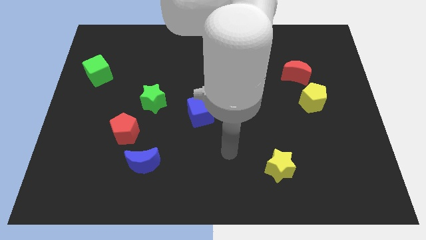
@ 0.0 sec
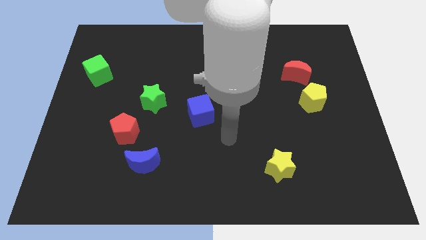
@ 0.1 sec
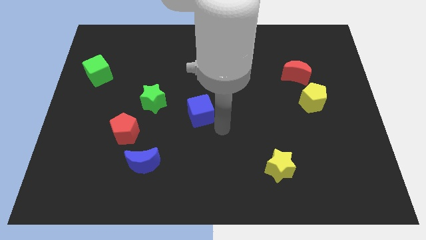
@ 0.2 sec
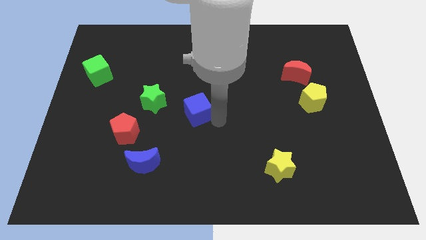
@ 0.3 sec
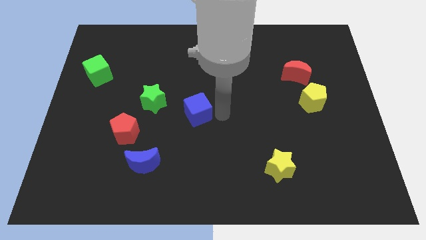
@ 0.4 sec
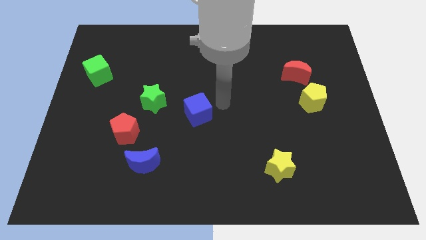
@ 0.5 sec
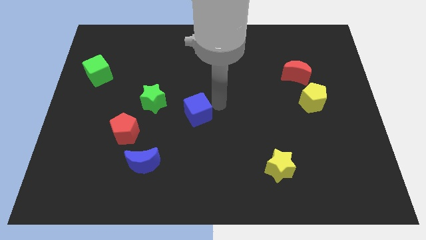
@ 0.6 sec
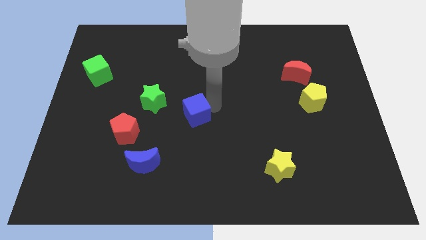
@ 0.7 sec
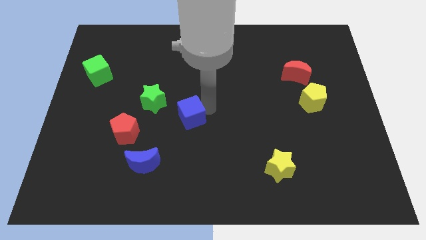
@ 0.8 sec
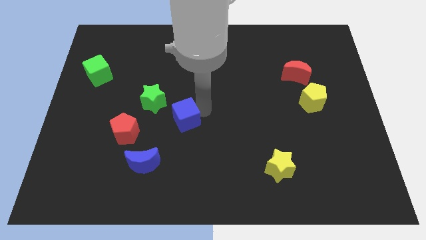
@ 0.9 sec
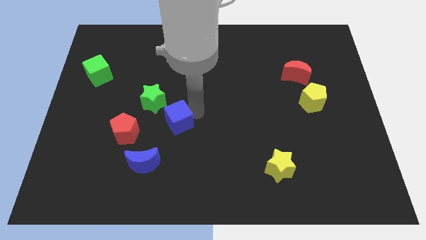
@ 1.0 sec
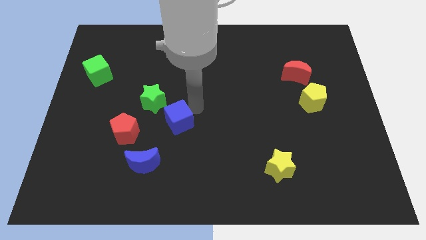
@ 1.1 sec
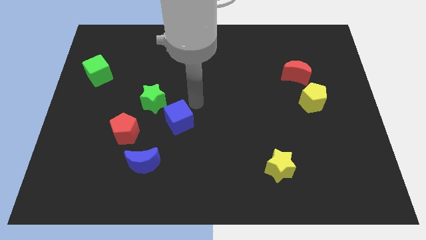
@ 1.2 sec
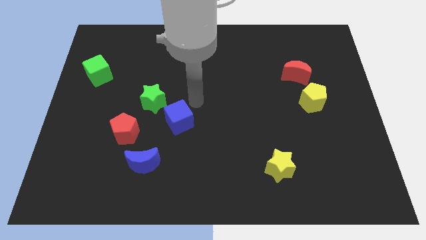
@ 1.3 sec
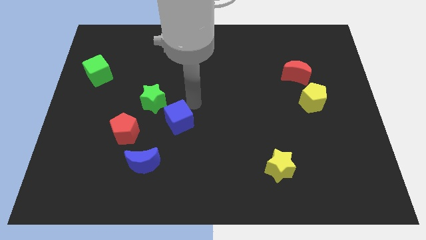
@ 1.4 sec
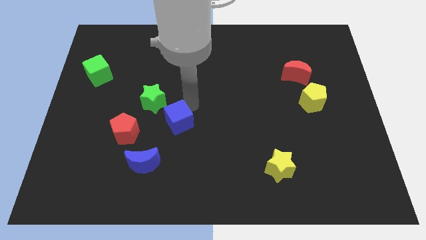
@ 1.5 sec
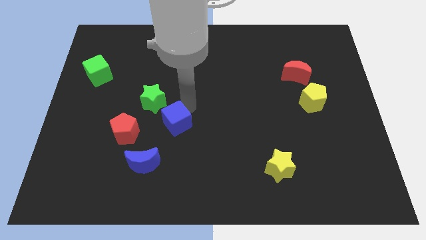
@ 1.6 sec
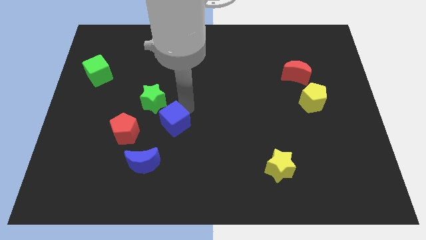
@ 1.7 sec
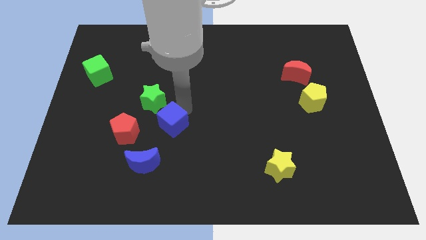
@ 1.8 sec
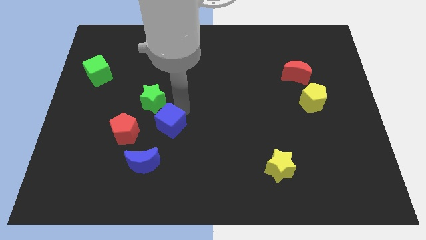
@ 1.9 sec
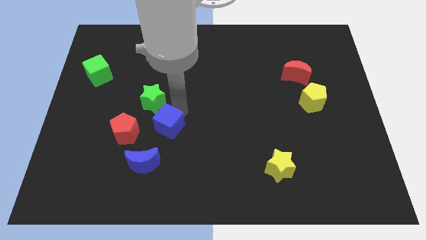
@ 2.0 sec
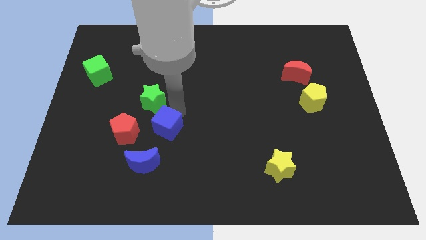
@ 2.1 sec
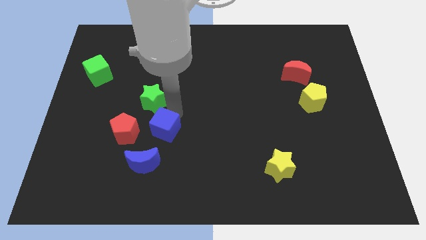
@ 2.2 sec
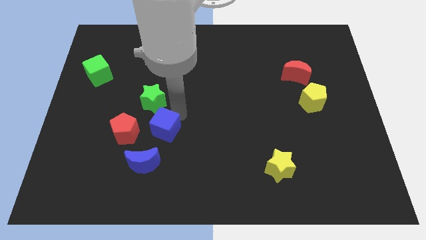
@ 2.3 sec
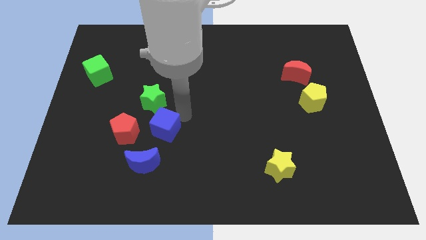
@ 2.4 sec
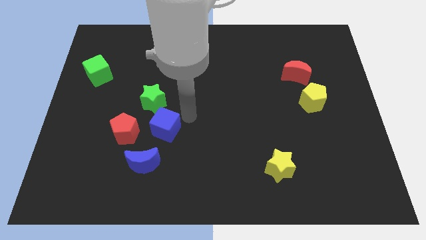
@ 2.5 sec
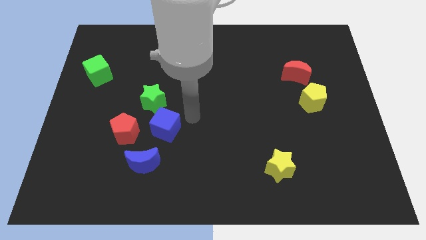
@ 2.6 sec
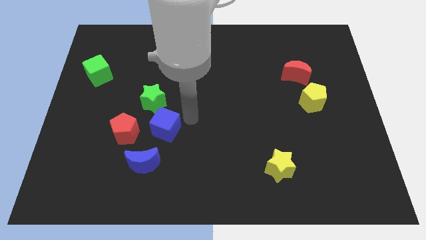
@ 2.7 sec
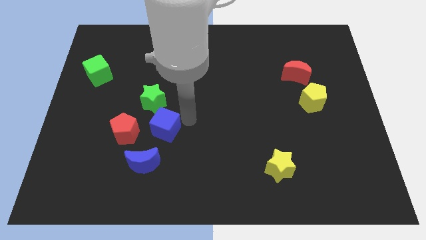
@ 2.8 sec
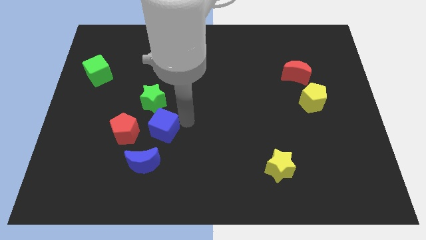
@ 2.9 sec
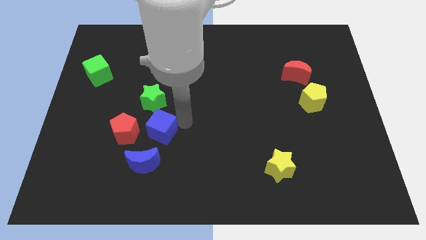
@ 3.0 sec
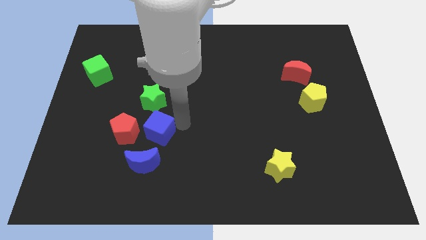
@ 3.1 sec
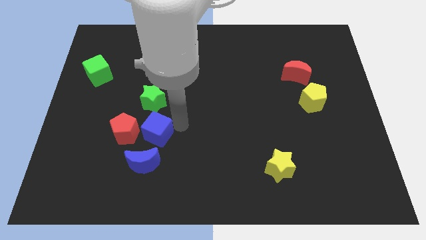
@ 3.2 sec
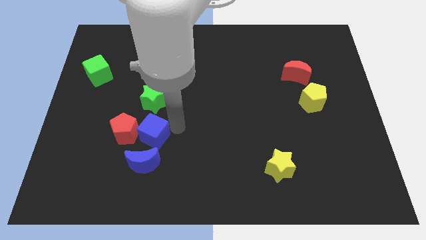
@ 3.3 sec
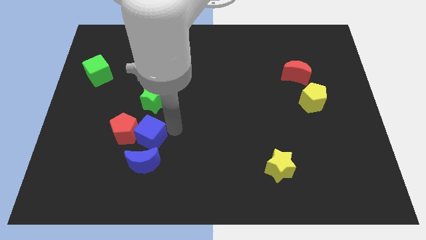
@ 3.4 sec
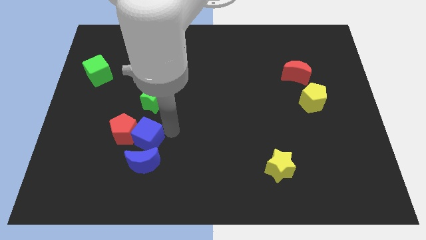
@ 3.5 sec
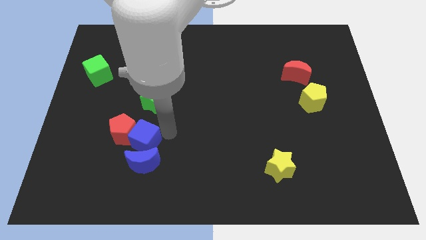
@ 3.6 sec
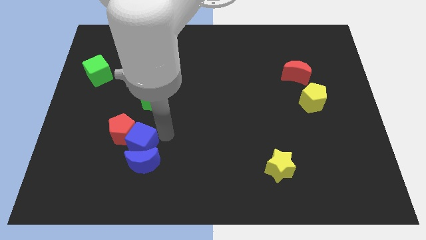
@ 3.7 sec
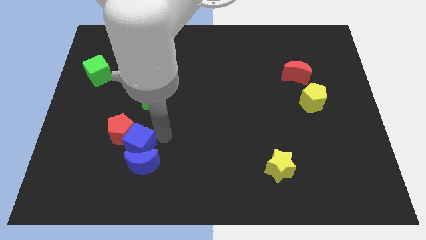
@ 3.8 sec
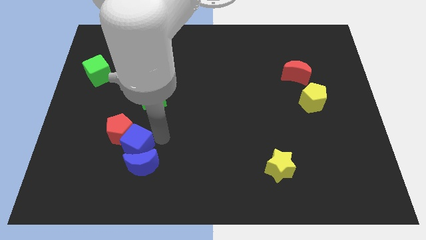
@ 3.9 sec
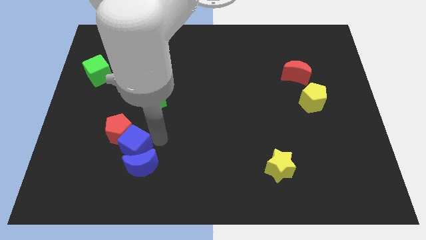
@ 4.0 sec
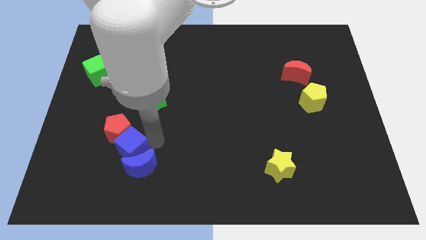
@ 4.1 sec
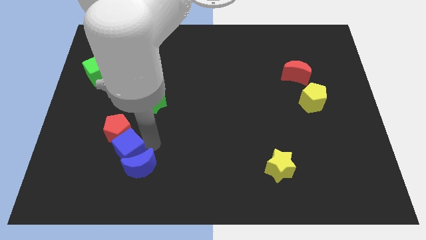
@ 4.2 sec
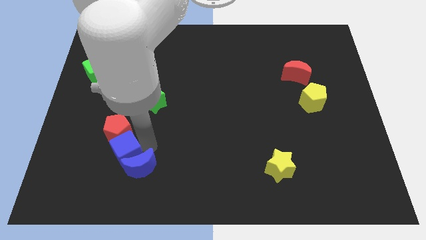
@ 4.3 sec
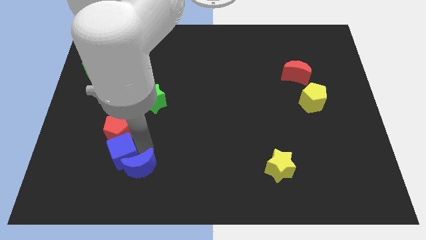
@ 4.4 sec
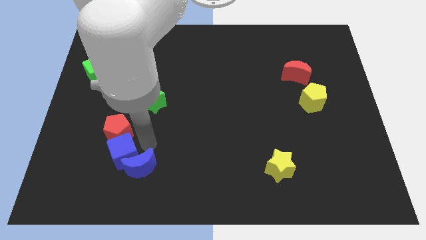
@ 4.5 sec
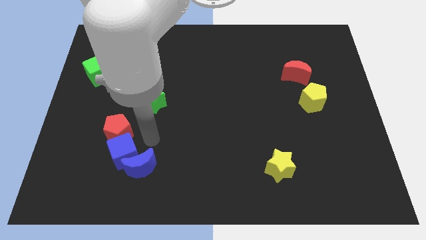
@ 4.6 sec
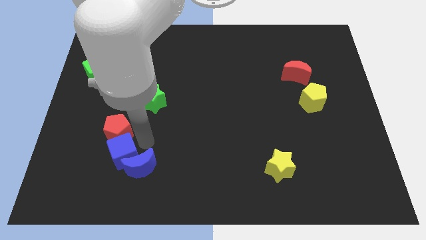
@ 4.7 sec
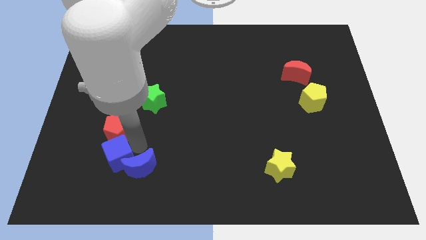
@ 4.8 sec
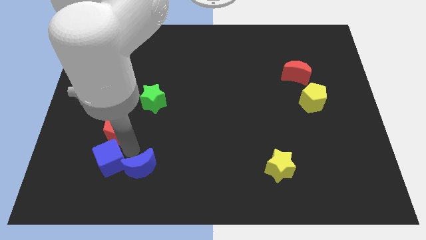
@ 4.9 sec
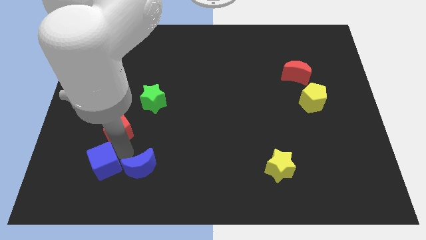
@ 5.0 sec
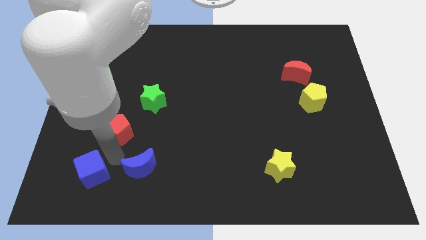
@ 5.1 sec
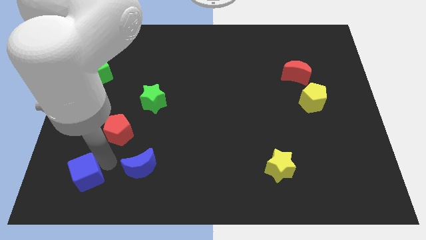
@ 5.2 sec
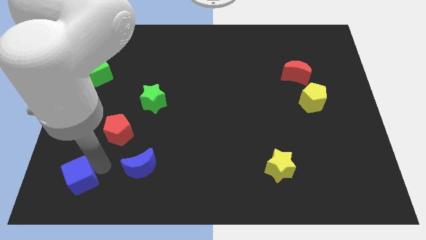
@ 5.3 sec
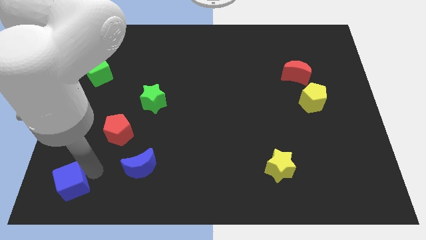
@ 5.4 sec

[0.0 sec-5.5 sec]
put the blue cube to the lower left corner

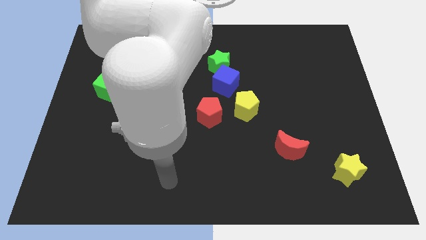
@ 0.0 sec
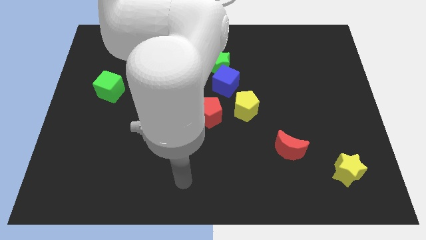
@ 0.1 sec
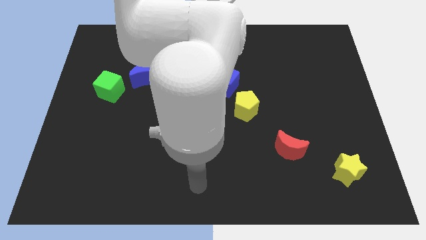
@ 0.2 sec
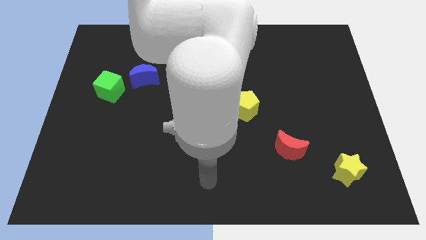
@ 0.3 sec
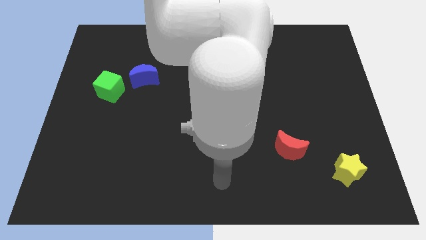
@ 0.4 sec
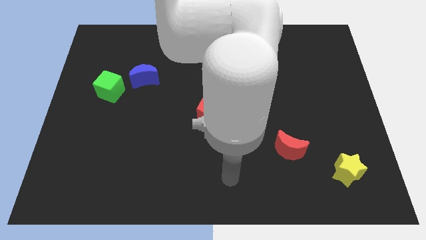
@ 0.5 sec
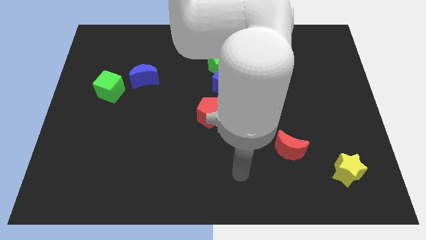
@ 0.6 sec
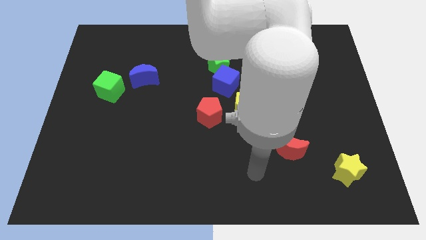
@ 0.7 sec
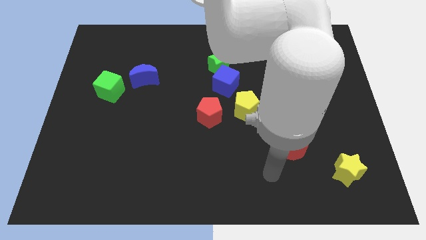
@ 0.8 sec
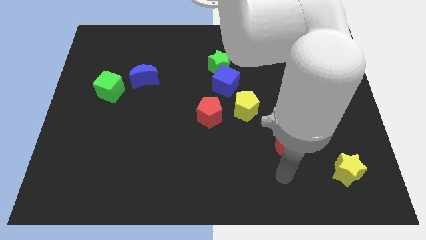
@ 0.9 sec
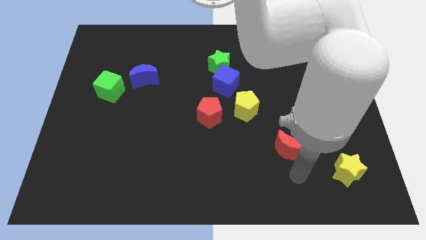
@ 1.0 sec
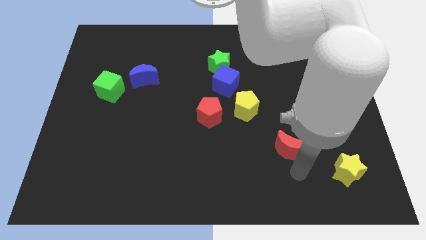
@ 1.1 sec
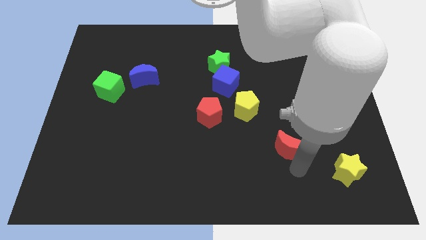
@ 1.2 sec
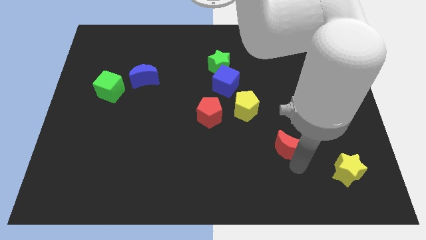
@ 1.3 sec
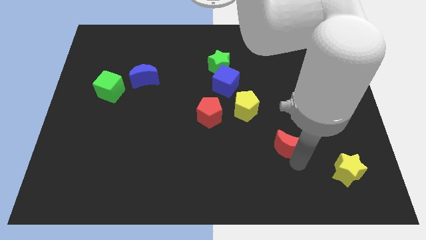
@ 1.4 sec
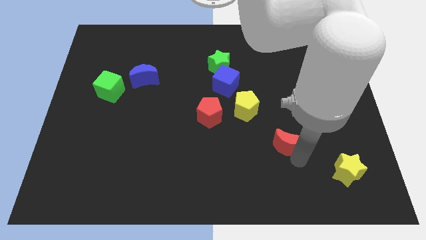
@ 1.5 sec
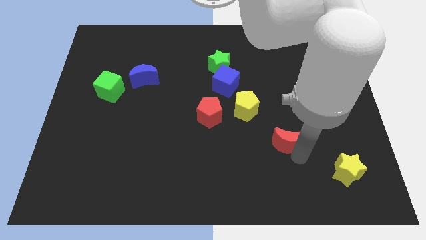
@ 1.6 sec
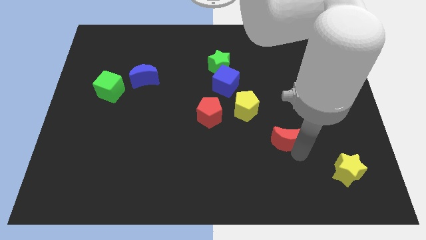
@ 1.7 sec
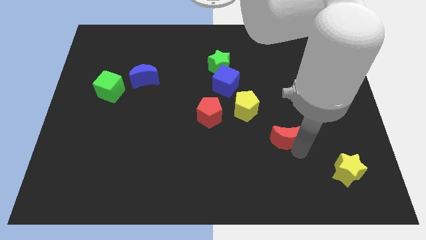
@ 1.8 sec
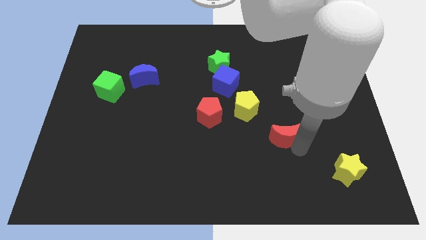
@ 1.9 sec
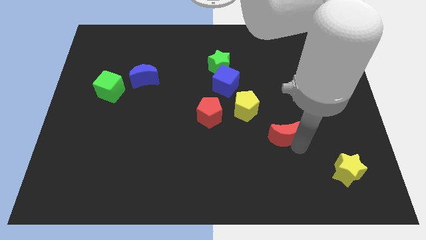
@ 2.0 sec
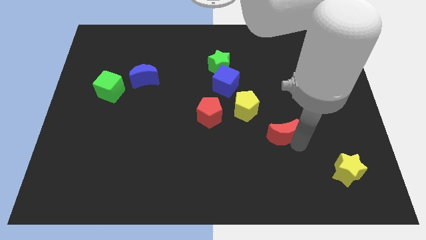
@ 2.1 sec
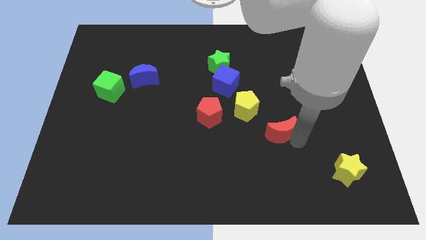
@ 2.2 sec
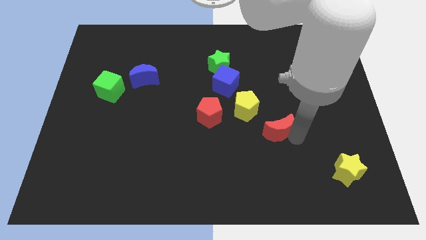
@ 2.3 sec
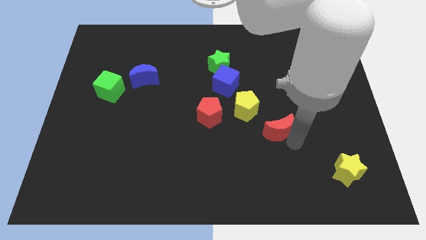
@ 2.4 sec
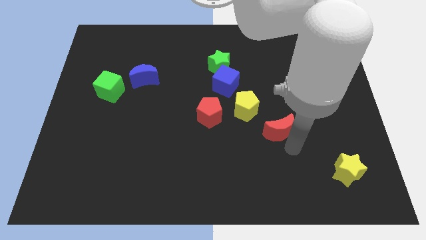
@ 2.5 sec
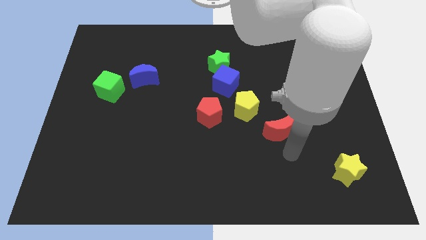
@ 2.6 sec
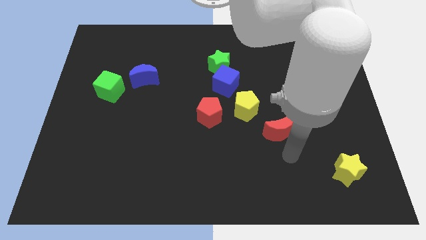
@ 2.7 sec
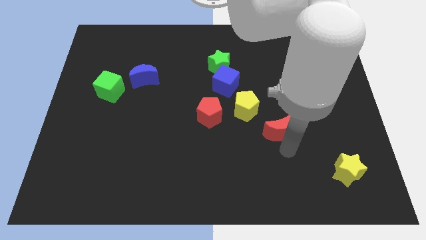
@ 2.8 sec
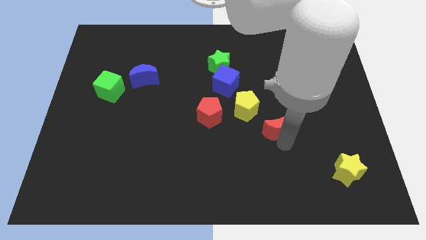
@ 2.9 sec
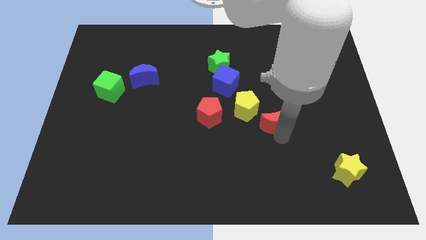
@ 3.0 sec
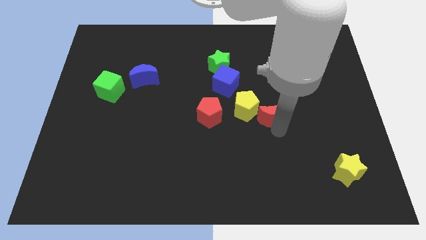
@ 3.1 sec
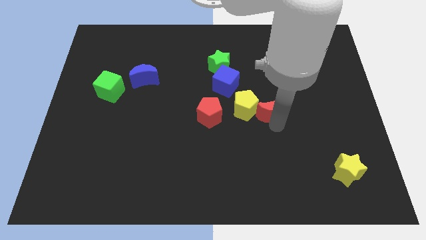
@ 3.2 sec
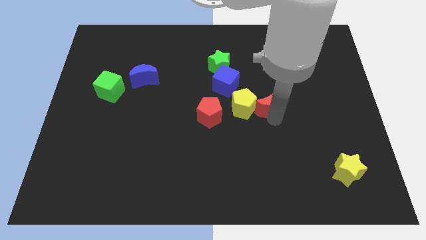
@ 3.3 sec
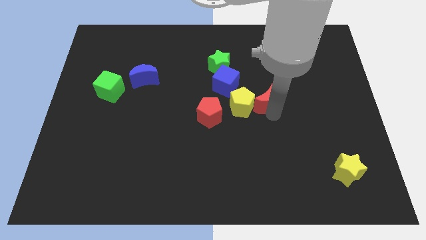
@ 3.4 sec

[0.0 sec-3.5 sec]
push the red moon to the middle
